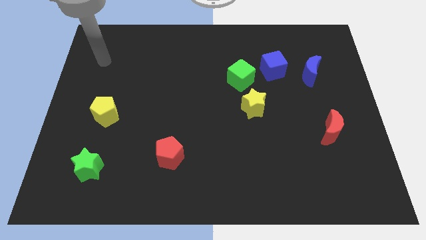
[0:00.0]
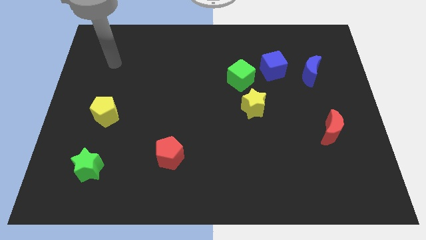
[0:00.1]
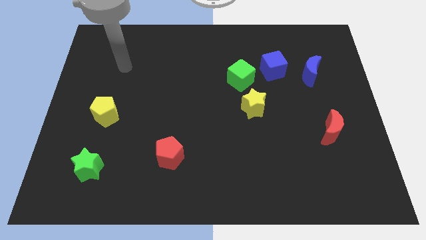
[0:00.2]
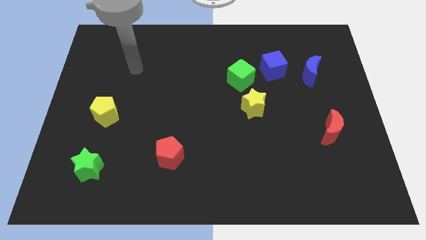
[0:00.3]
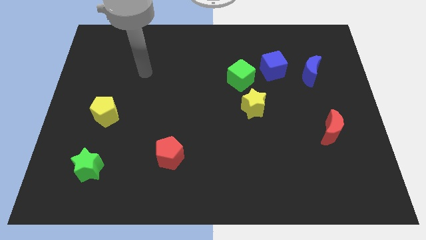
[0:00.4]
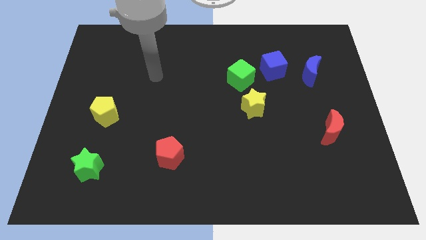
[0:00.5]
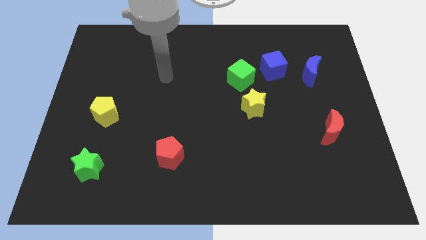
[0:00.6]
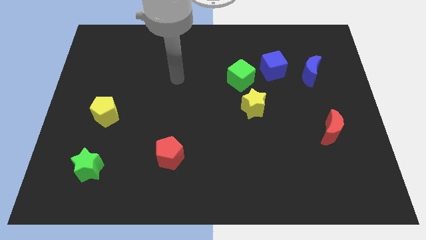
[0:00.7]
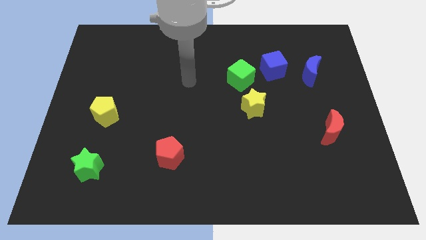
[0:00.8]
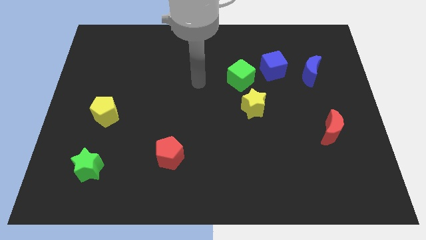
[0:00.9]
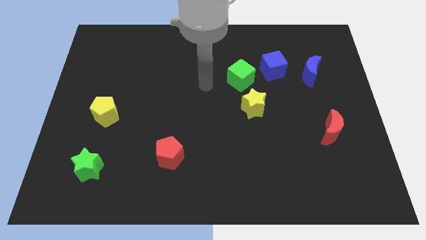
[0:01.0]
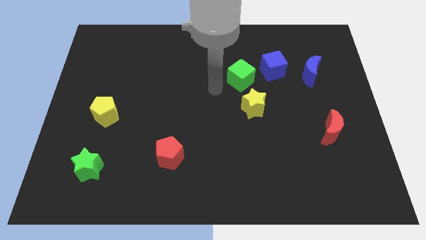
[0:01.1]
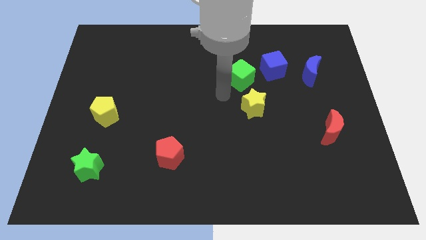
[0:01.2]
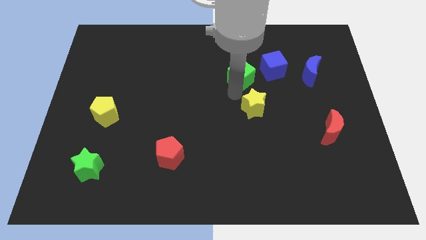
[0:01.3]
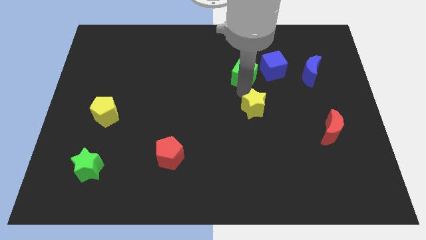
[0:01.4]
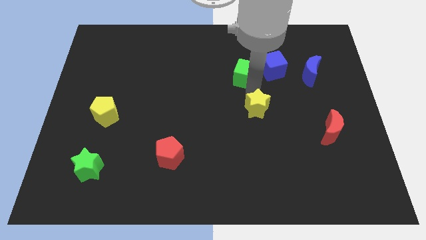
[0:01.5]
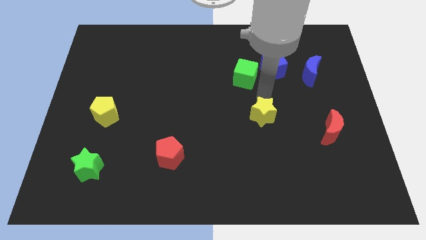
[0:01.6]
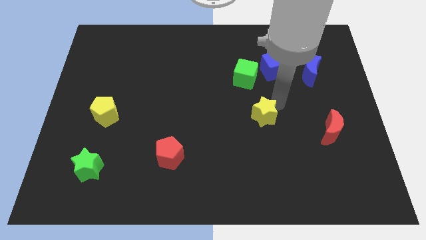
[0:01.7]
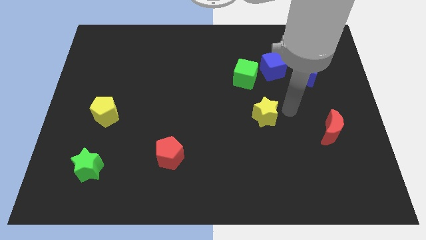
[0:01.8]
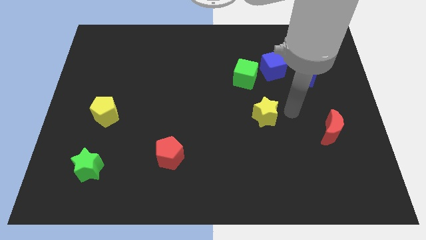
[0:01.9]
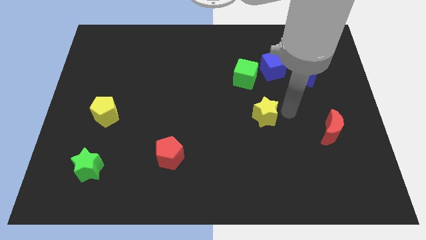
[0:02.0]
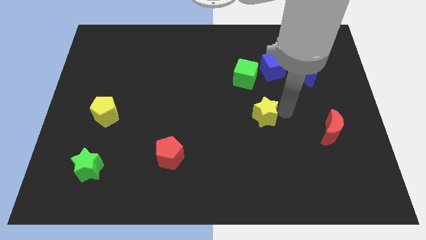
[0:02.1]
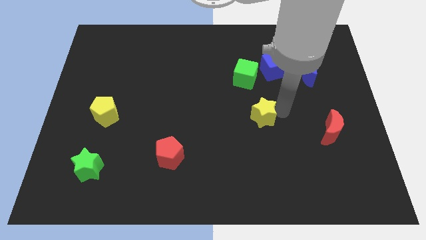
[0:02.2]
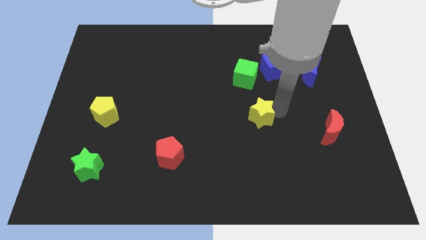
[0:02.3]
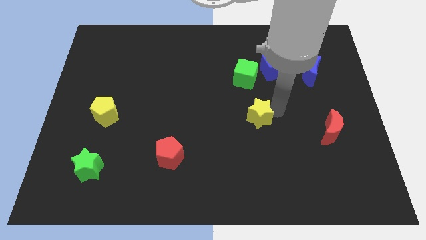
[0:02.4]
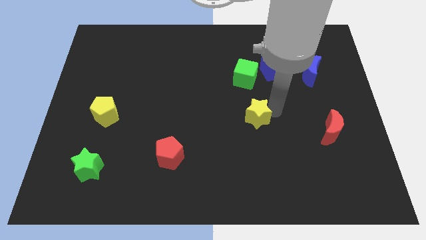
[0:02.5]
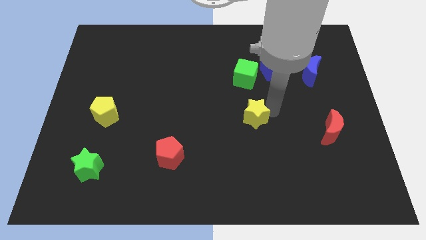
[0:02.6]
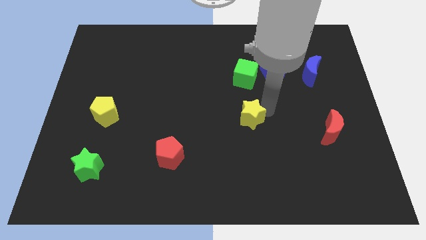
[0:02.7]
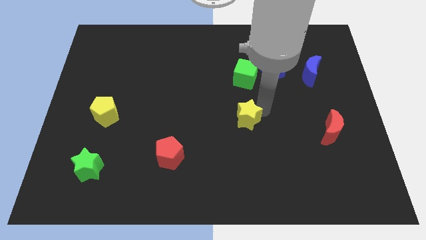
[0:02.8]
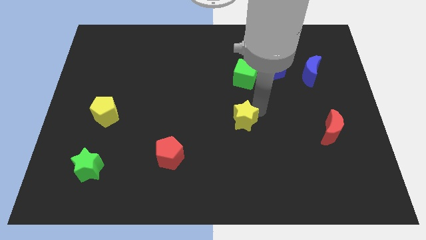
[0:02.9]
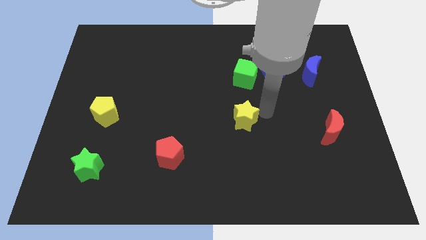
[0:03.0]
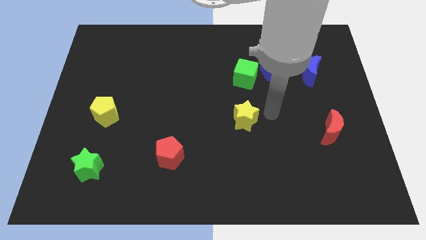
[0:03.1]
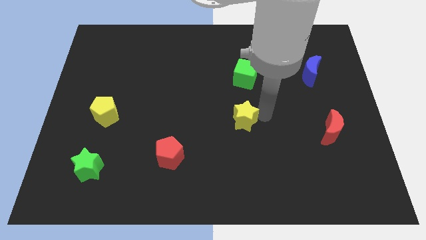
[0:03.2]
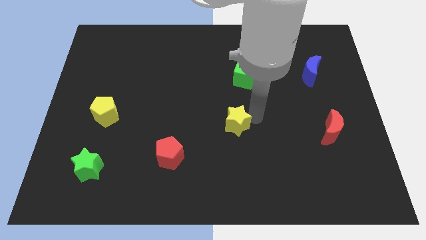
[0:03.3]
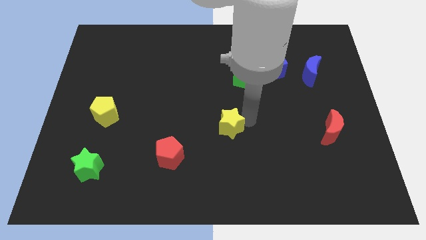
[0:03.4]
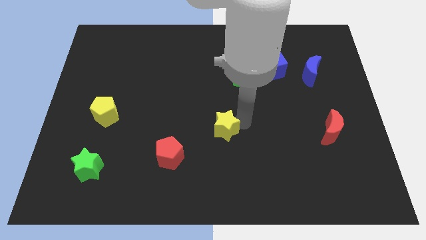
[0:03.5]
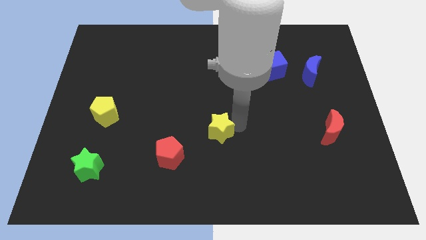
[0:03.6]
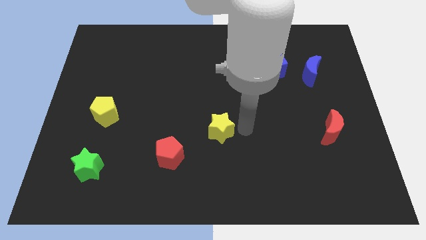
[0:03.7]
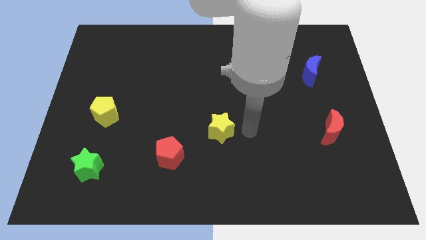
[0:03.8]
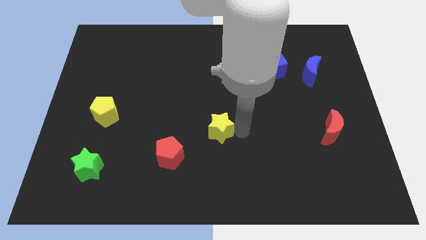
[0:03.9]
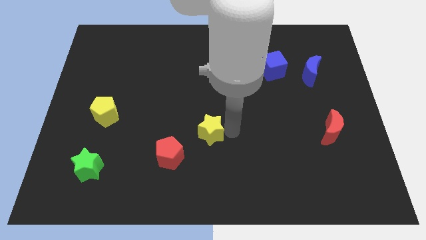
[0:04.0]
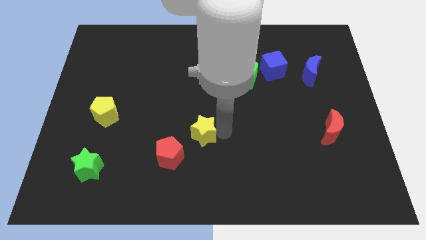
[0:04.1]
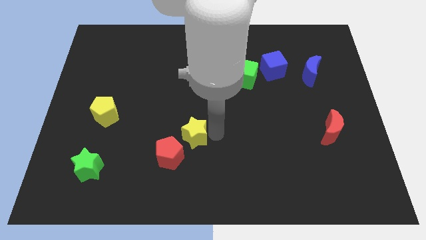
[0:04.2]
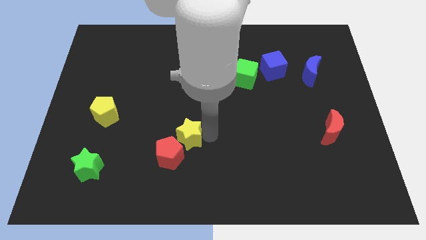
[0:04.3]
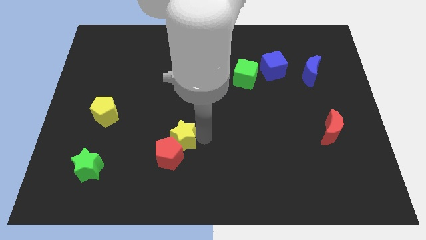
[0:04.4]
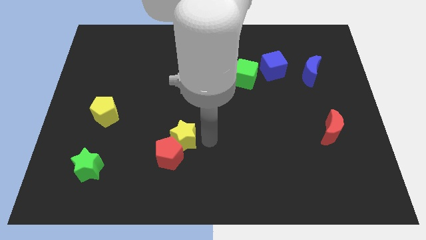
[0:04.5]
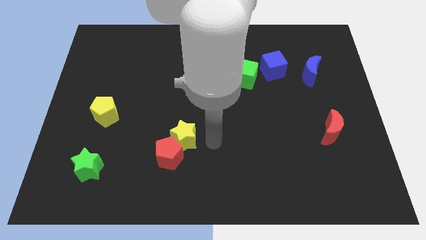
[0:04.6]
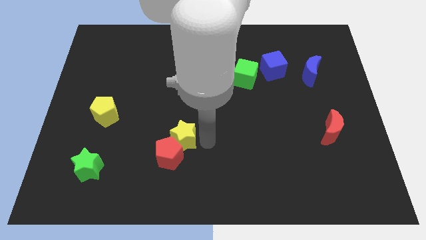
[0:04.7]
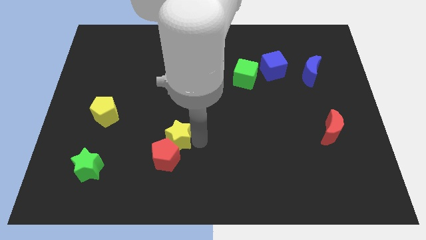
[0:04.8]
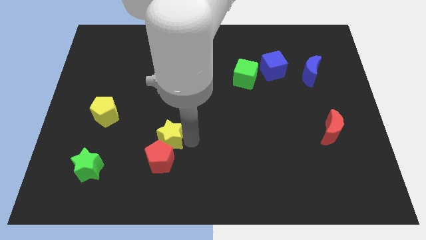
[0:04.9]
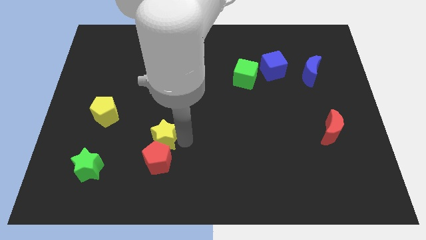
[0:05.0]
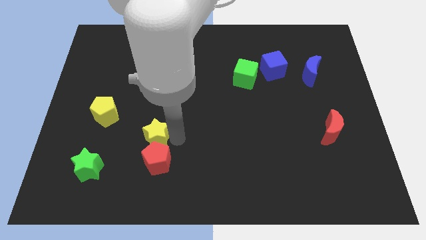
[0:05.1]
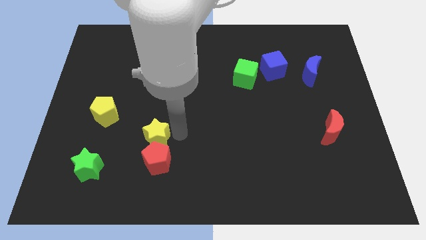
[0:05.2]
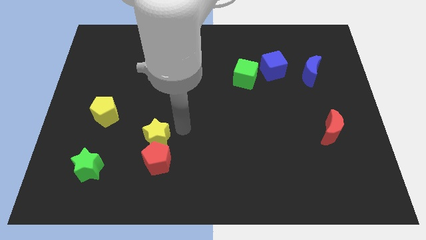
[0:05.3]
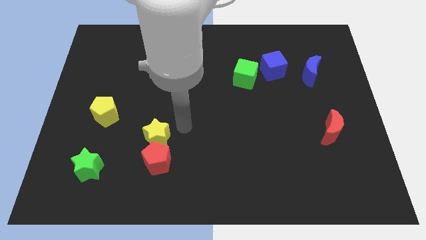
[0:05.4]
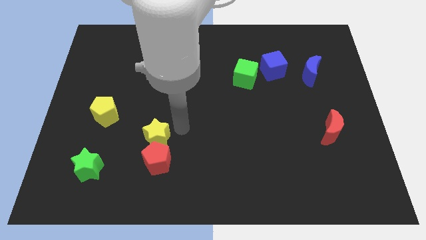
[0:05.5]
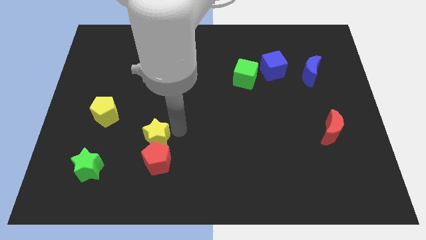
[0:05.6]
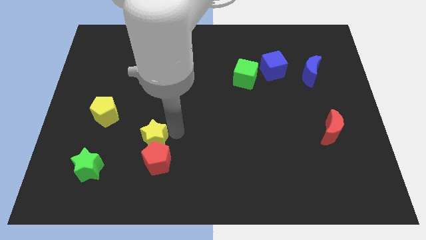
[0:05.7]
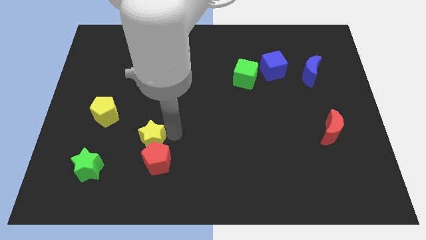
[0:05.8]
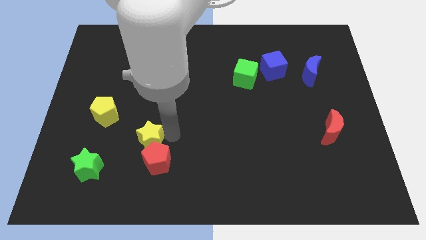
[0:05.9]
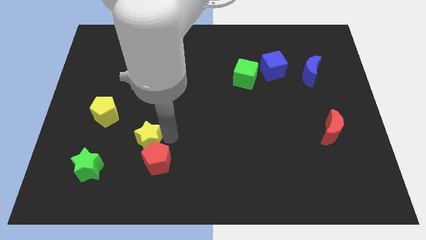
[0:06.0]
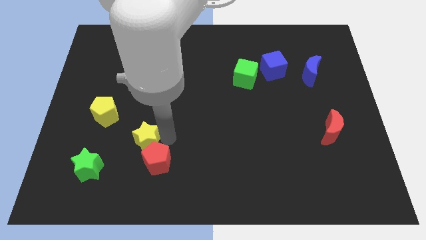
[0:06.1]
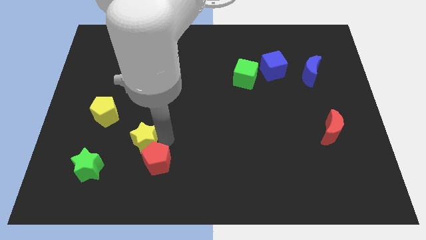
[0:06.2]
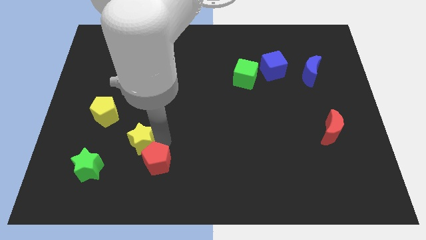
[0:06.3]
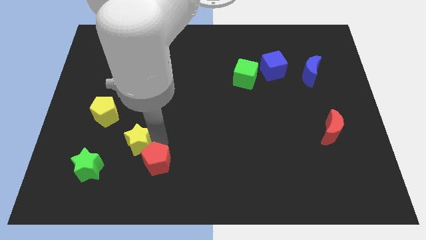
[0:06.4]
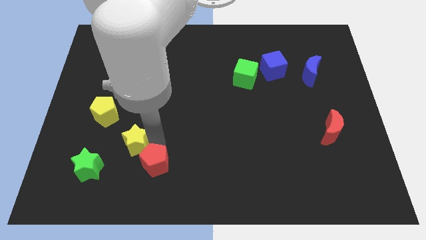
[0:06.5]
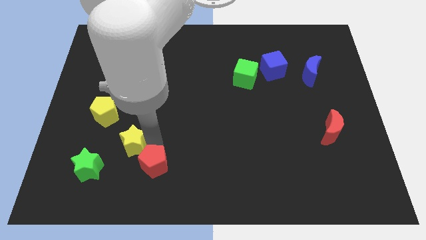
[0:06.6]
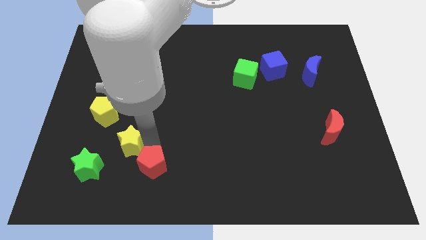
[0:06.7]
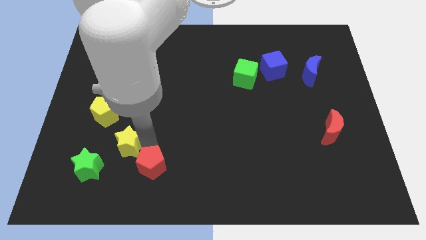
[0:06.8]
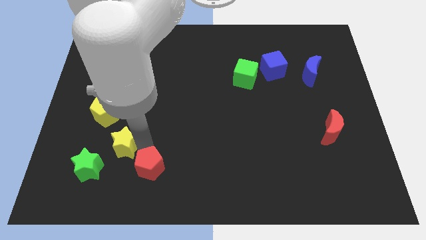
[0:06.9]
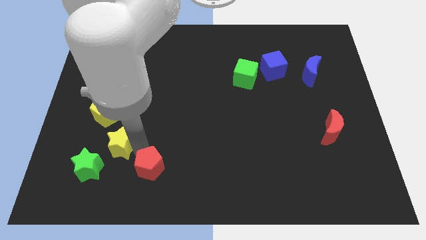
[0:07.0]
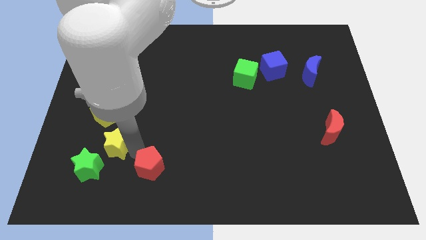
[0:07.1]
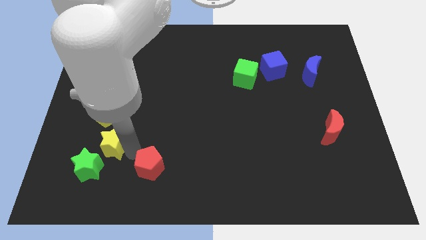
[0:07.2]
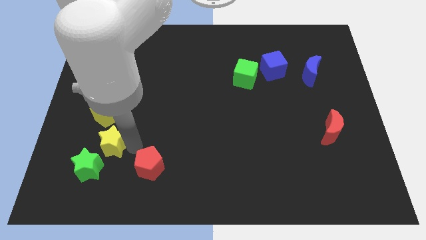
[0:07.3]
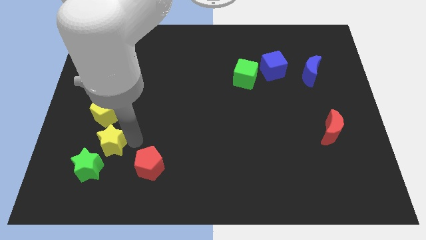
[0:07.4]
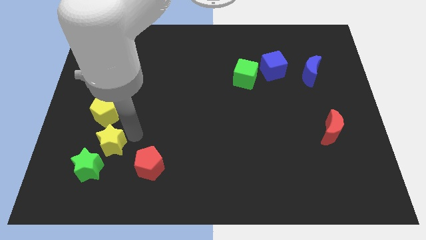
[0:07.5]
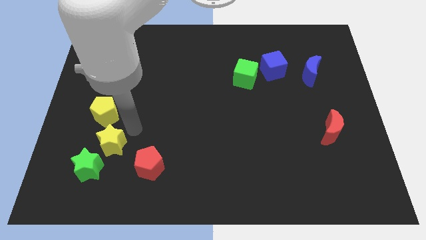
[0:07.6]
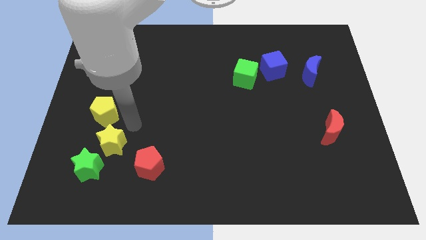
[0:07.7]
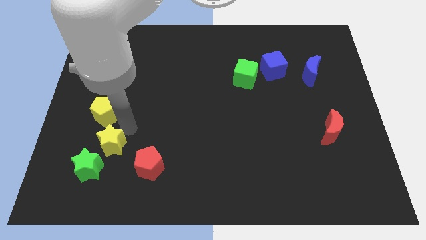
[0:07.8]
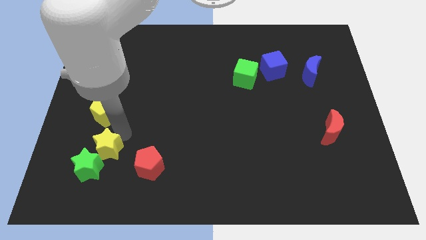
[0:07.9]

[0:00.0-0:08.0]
slide the yellow star to the green star
